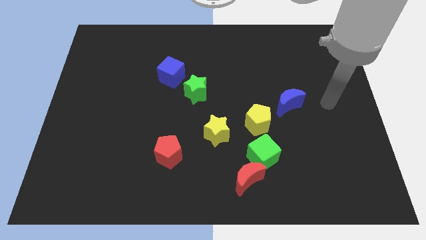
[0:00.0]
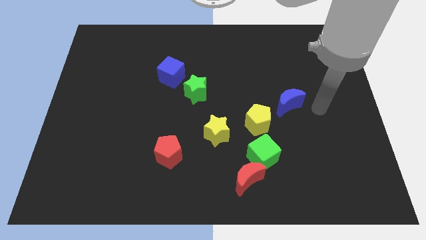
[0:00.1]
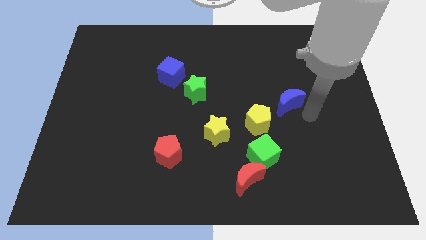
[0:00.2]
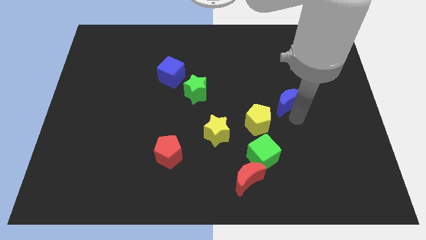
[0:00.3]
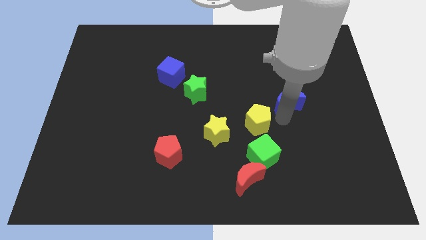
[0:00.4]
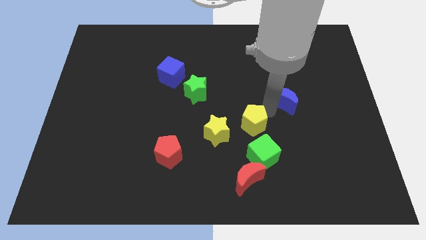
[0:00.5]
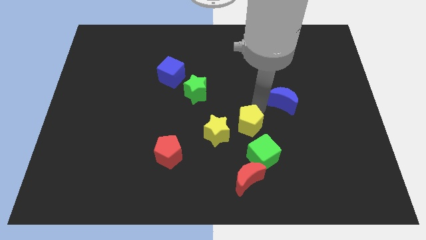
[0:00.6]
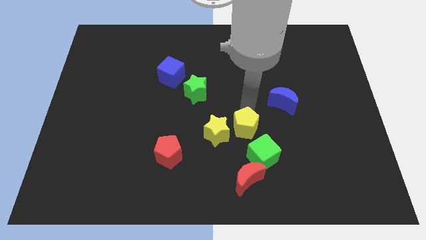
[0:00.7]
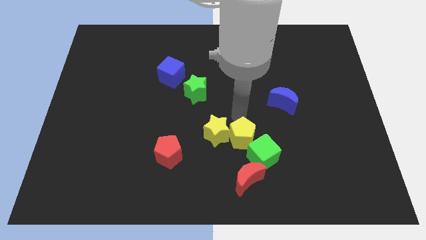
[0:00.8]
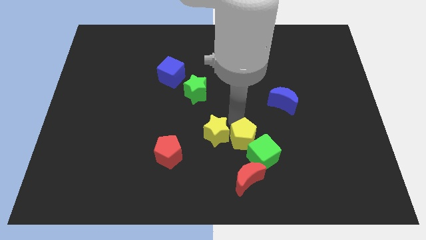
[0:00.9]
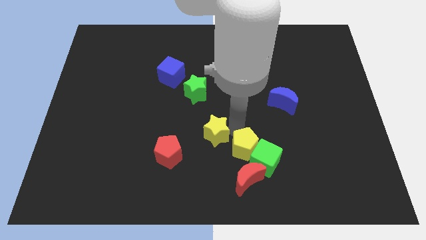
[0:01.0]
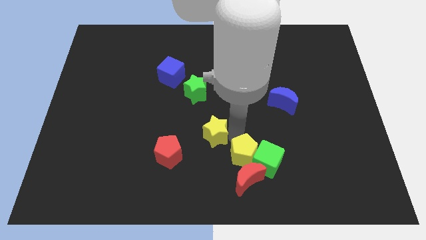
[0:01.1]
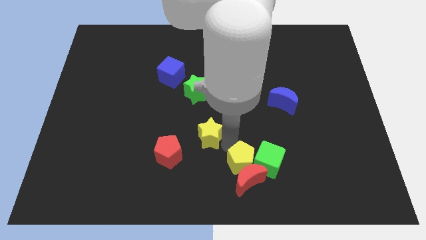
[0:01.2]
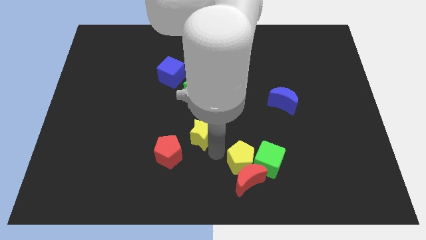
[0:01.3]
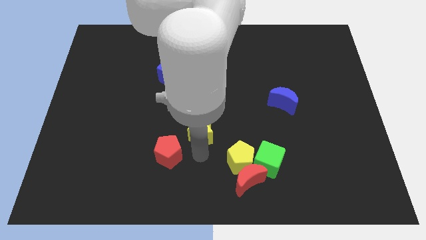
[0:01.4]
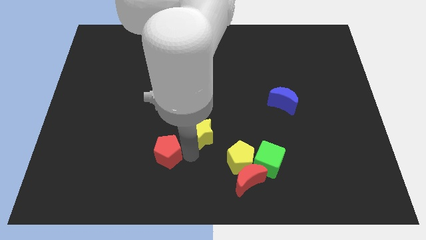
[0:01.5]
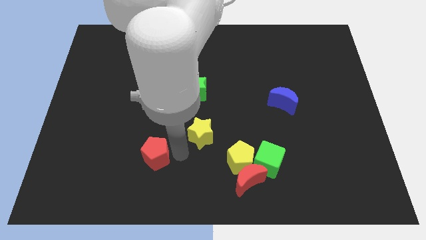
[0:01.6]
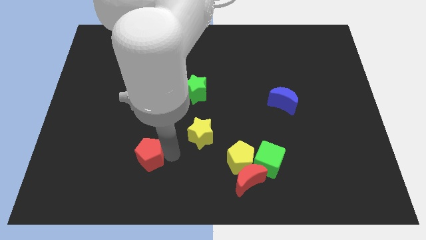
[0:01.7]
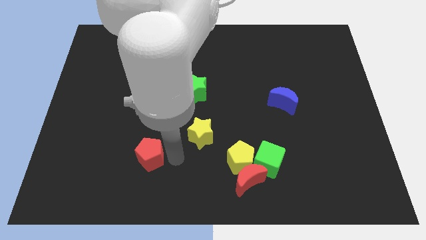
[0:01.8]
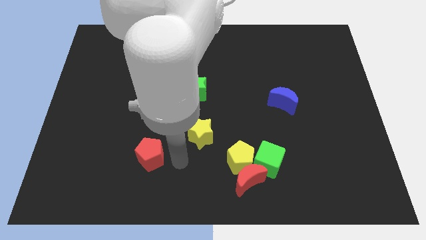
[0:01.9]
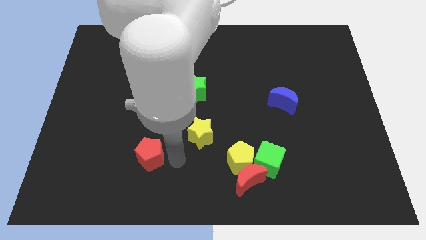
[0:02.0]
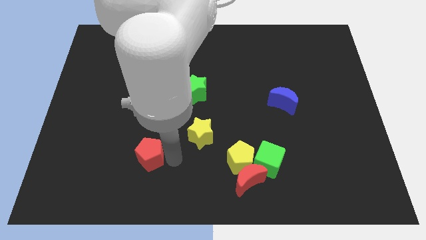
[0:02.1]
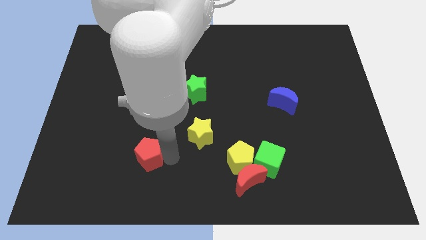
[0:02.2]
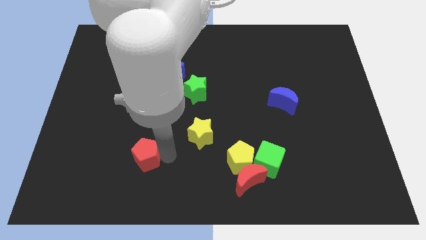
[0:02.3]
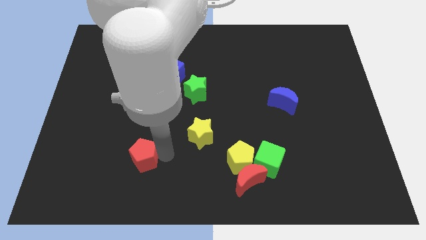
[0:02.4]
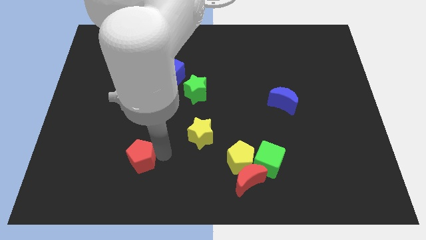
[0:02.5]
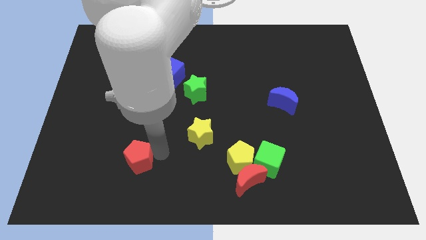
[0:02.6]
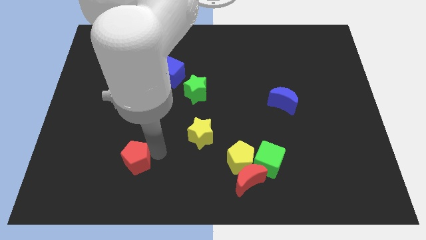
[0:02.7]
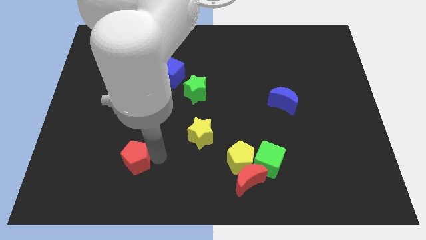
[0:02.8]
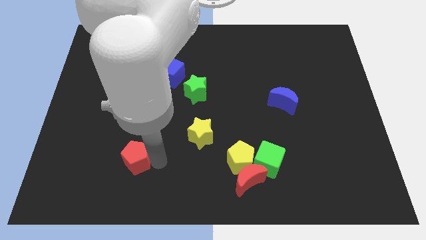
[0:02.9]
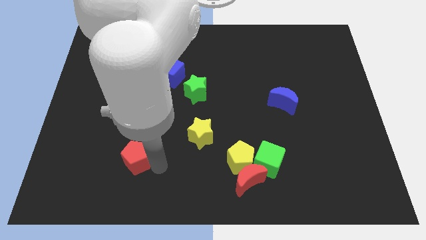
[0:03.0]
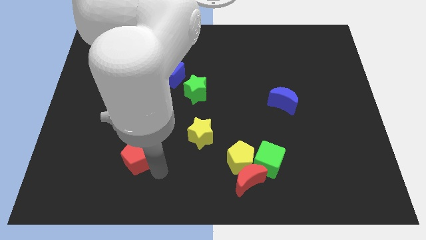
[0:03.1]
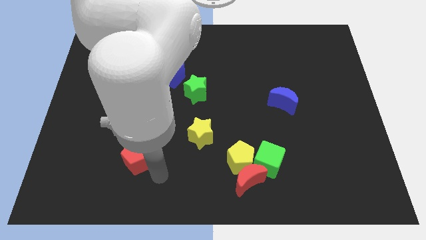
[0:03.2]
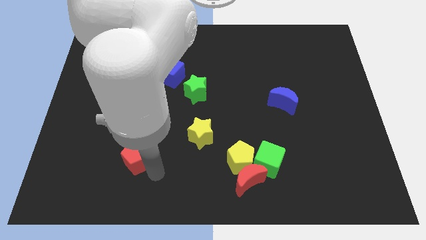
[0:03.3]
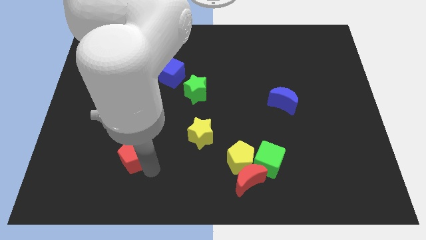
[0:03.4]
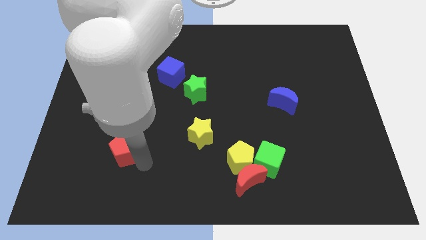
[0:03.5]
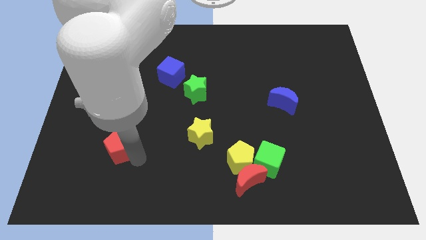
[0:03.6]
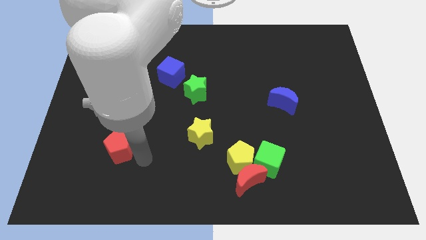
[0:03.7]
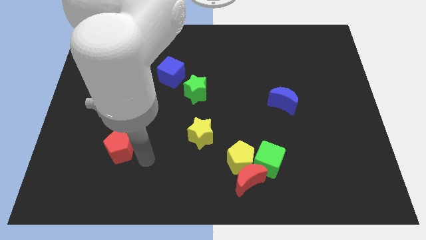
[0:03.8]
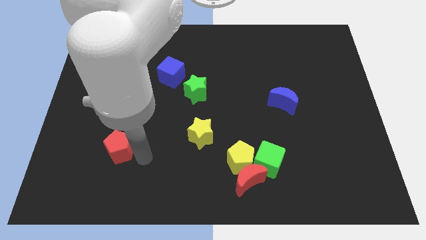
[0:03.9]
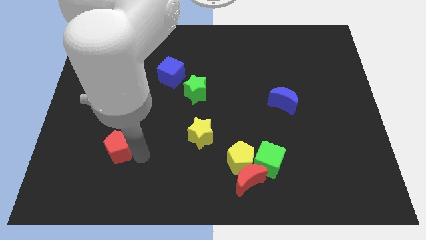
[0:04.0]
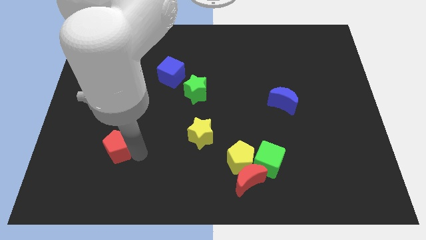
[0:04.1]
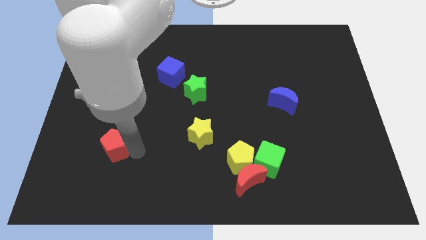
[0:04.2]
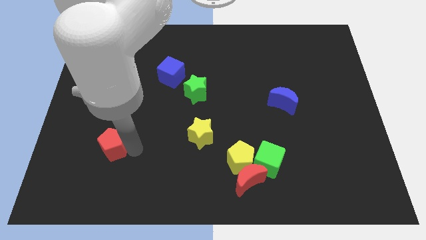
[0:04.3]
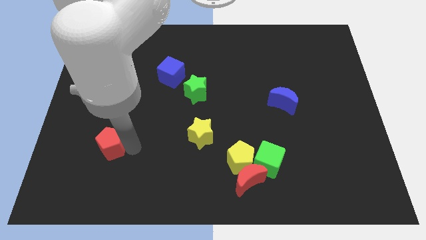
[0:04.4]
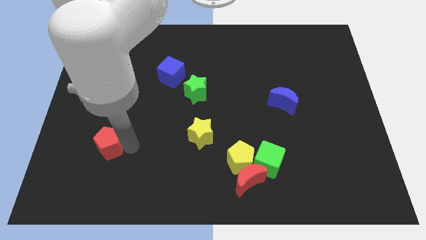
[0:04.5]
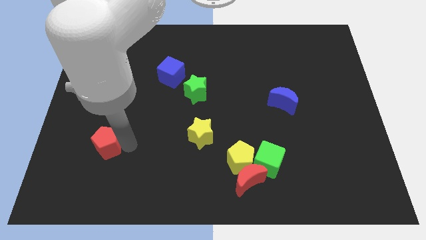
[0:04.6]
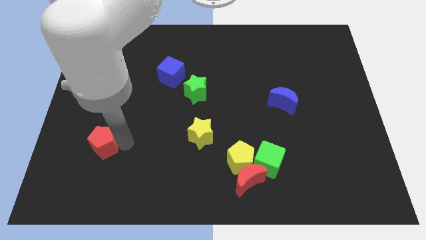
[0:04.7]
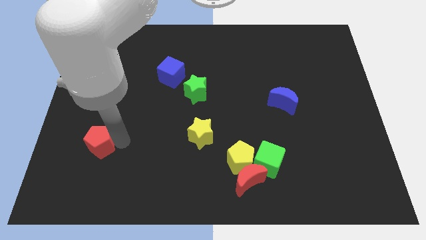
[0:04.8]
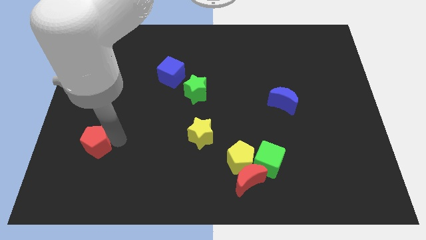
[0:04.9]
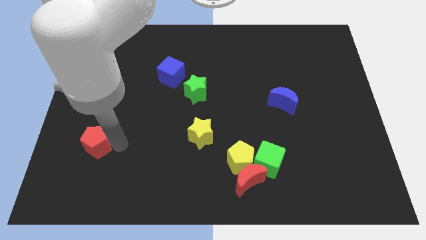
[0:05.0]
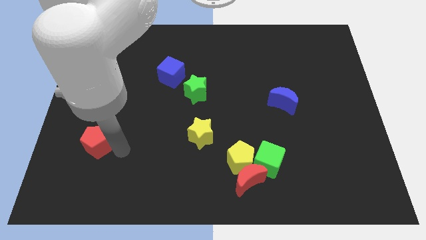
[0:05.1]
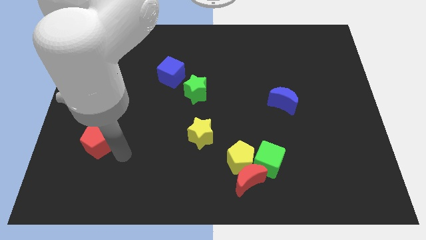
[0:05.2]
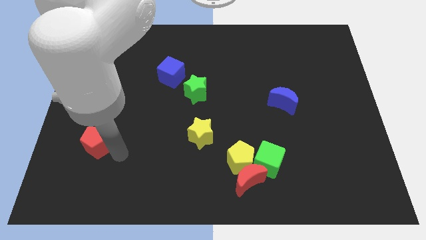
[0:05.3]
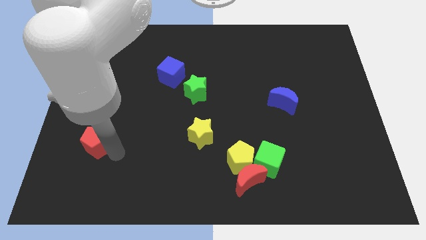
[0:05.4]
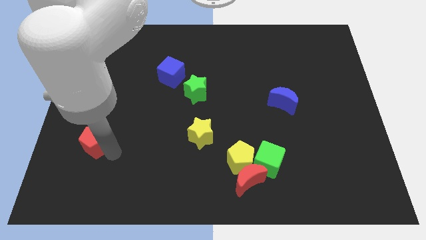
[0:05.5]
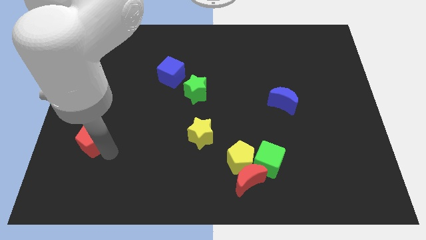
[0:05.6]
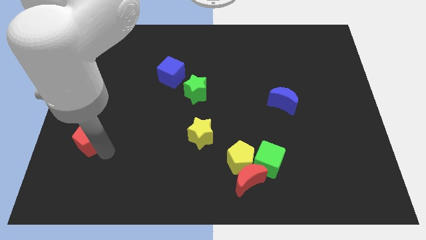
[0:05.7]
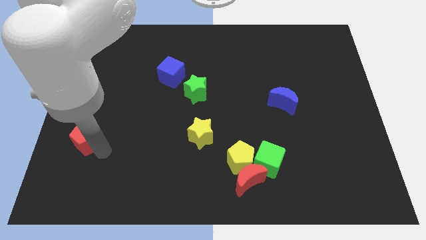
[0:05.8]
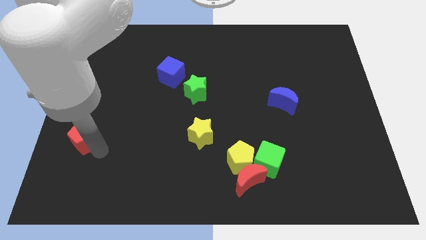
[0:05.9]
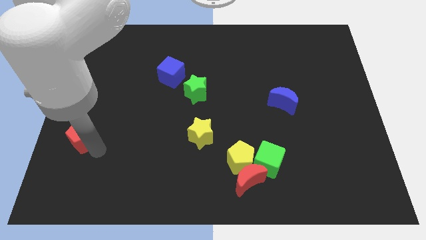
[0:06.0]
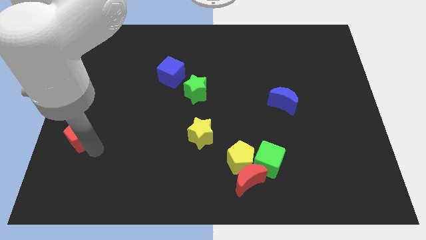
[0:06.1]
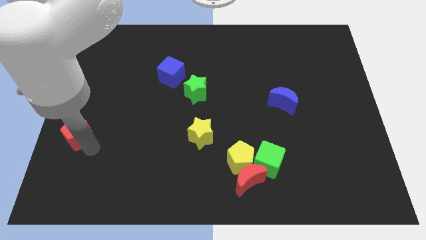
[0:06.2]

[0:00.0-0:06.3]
push the red pentagon to the left side

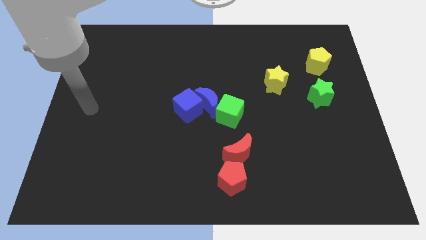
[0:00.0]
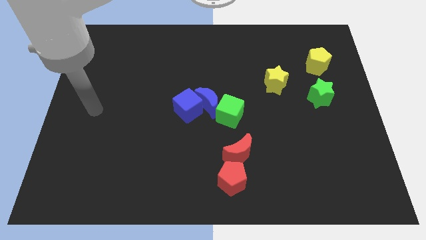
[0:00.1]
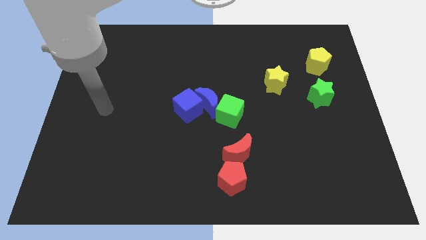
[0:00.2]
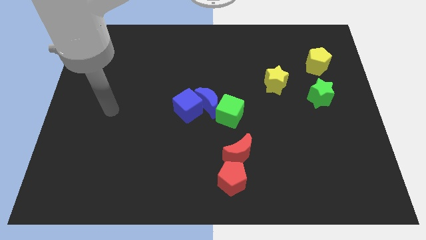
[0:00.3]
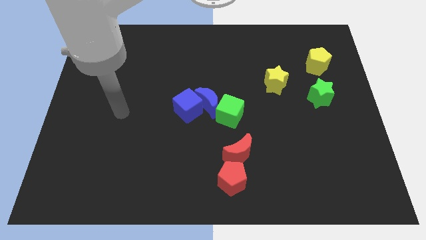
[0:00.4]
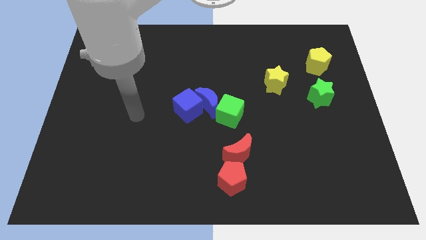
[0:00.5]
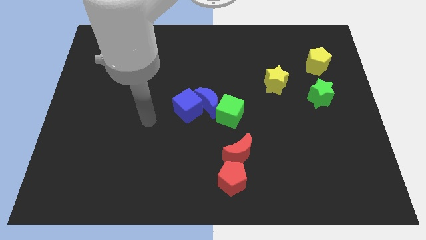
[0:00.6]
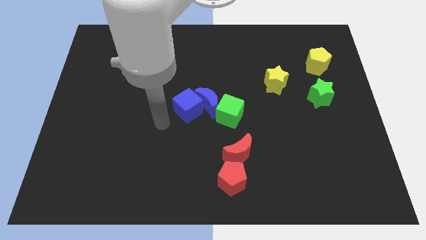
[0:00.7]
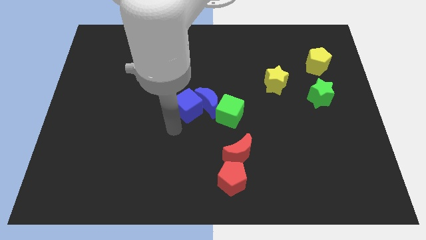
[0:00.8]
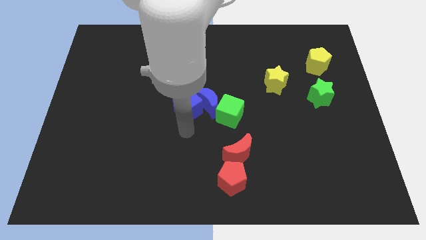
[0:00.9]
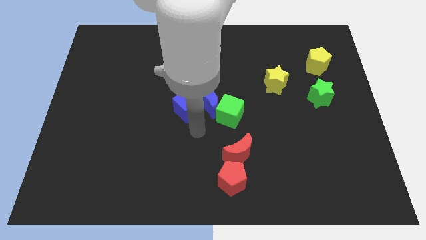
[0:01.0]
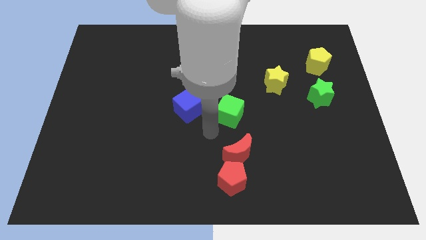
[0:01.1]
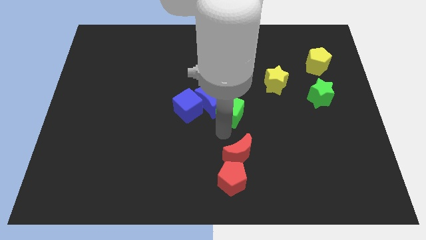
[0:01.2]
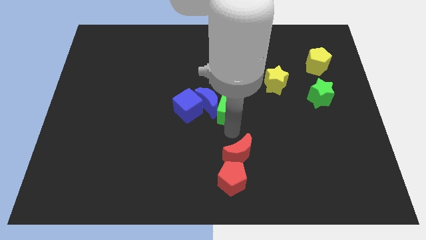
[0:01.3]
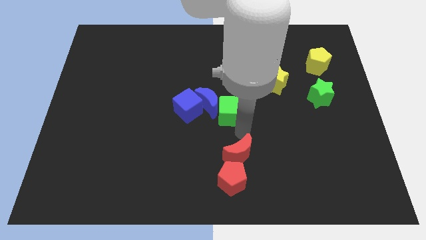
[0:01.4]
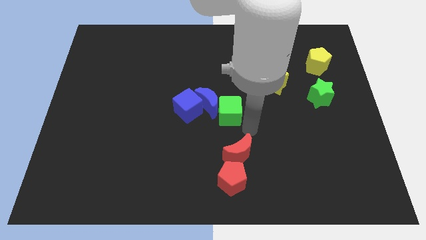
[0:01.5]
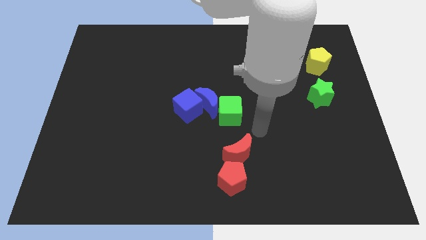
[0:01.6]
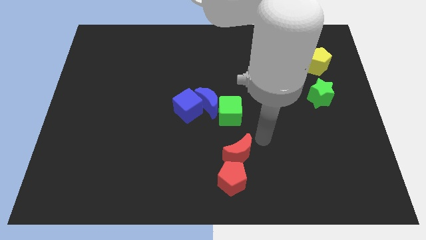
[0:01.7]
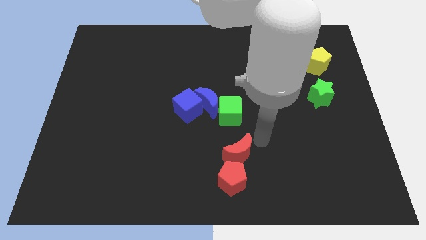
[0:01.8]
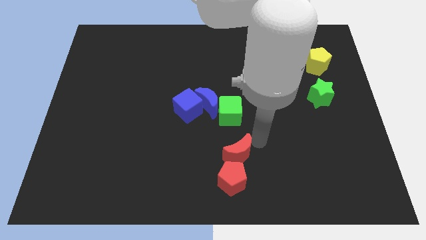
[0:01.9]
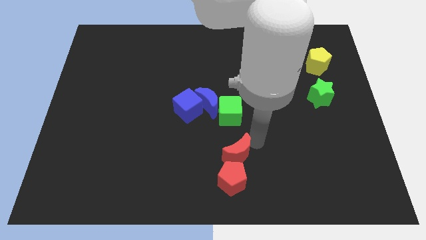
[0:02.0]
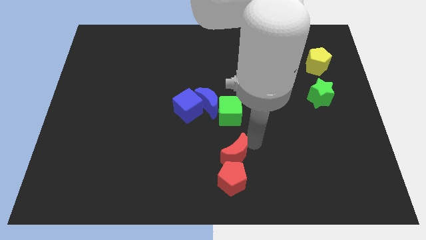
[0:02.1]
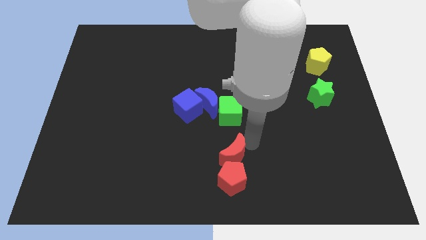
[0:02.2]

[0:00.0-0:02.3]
push the red moon to the bottom
